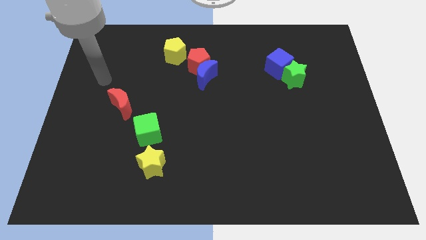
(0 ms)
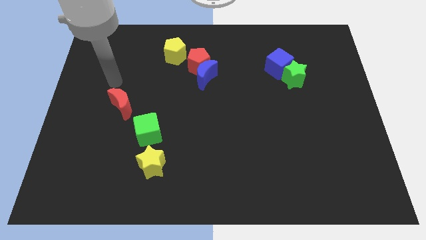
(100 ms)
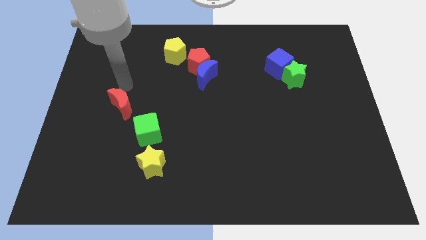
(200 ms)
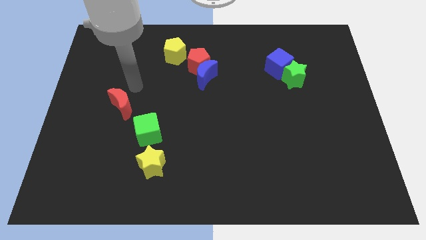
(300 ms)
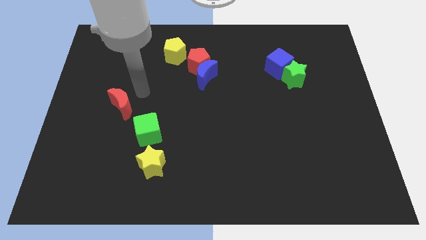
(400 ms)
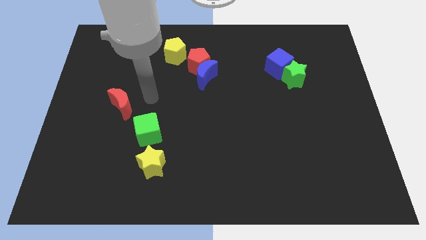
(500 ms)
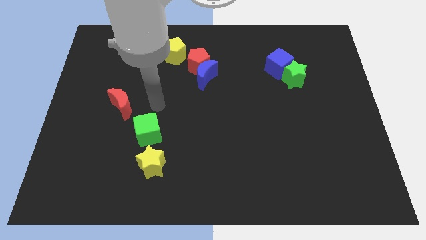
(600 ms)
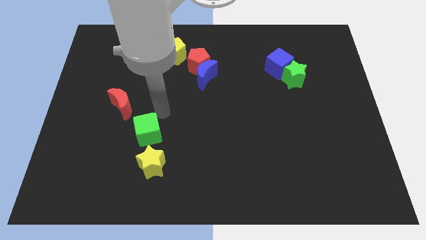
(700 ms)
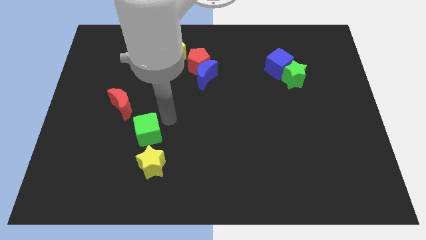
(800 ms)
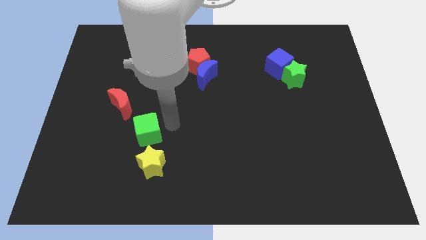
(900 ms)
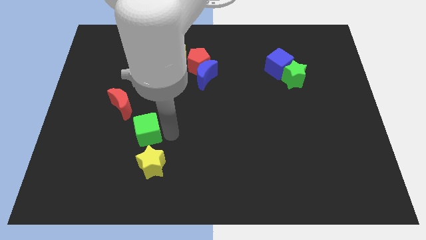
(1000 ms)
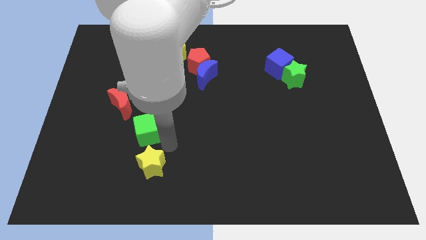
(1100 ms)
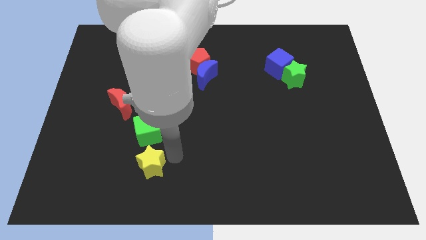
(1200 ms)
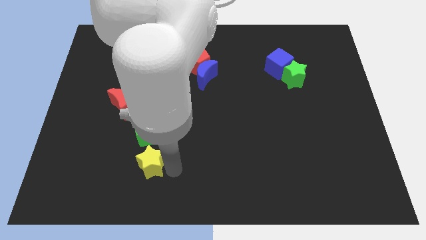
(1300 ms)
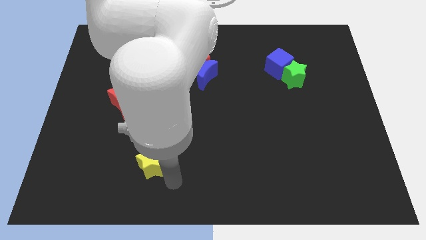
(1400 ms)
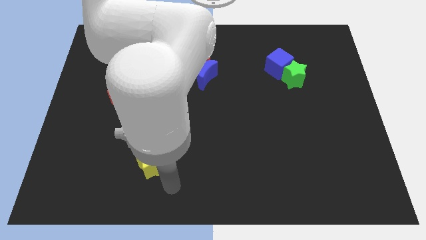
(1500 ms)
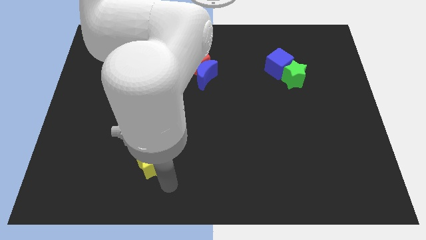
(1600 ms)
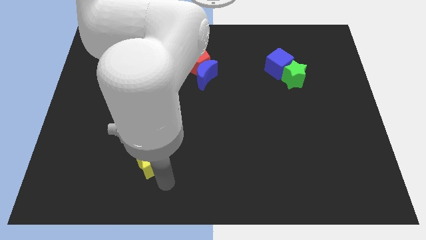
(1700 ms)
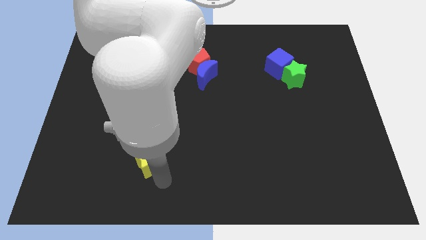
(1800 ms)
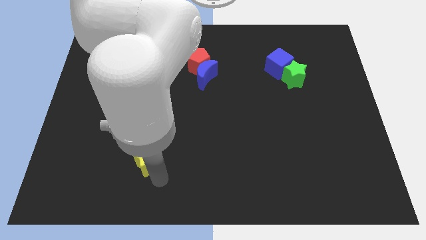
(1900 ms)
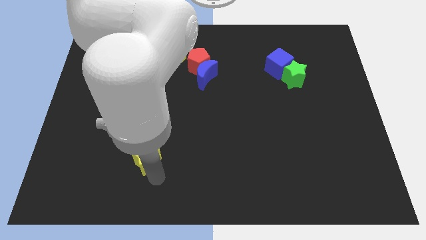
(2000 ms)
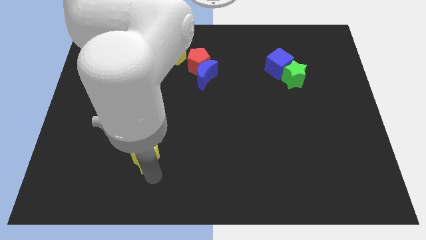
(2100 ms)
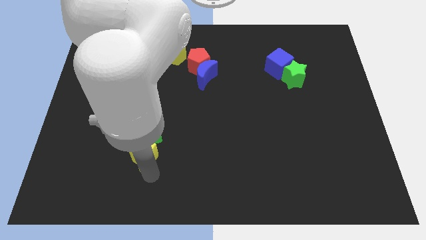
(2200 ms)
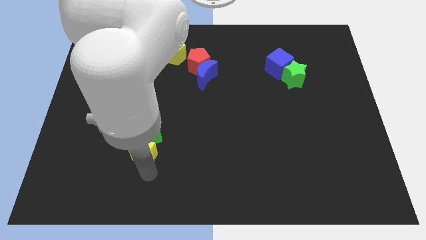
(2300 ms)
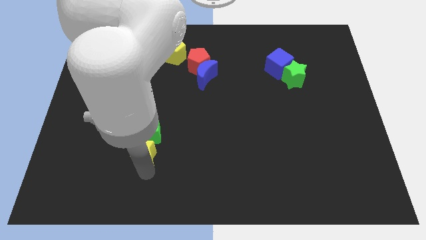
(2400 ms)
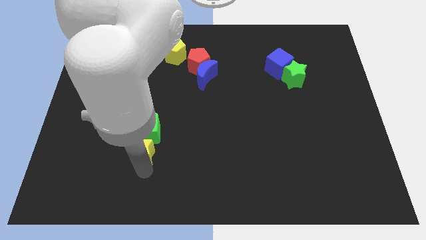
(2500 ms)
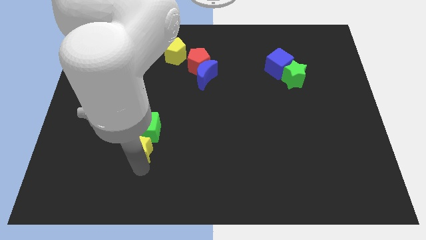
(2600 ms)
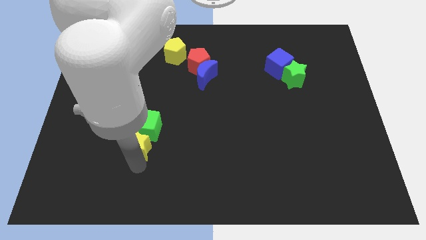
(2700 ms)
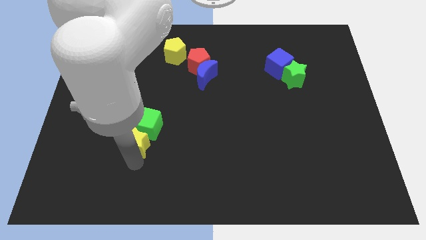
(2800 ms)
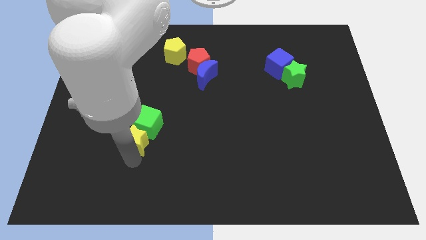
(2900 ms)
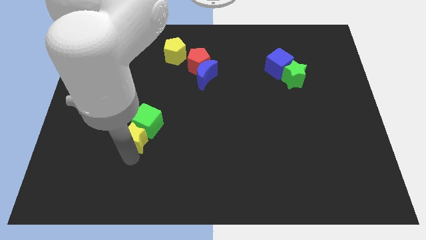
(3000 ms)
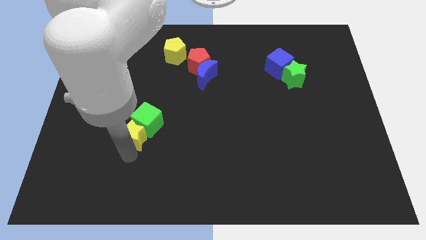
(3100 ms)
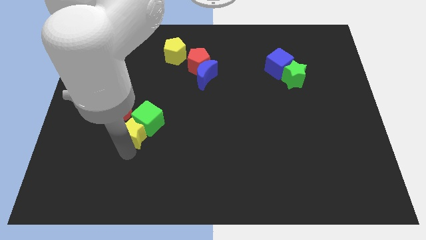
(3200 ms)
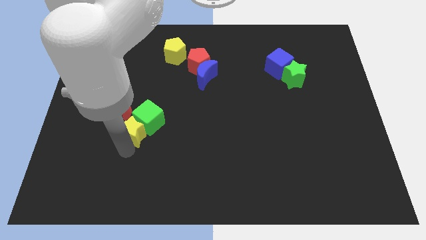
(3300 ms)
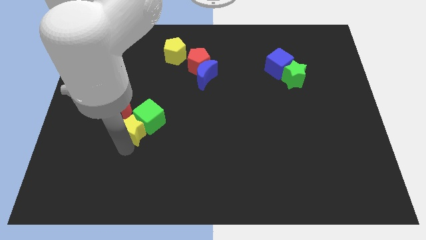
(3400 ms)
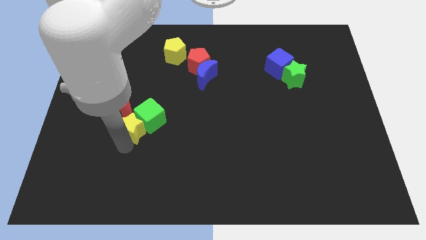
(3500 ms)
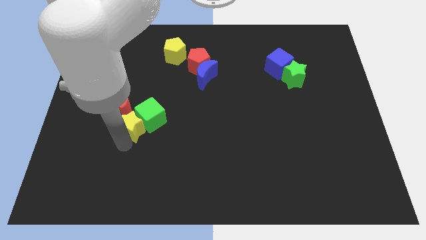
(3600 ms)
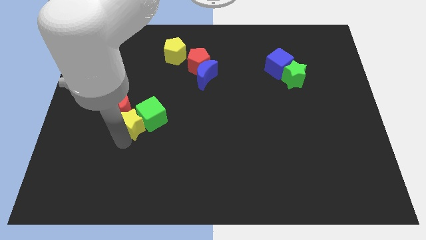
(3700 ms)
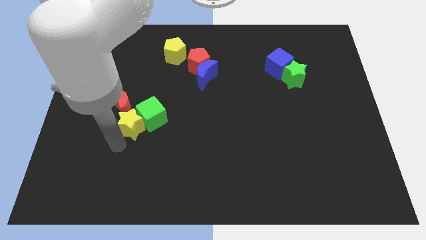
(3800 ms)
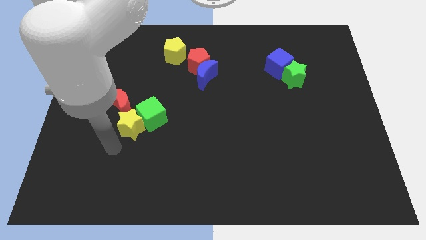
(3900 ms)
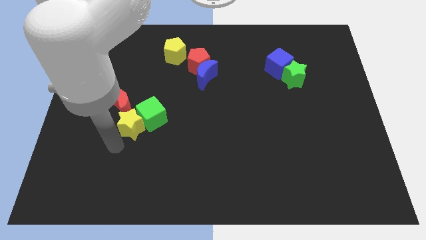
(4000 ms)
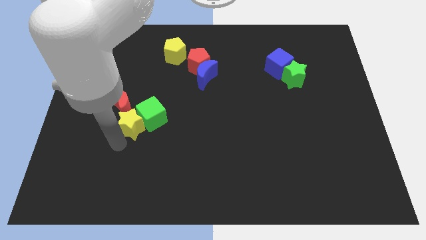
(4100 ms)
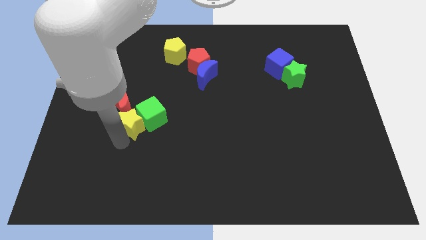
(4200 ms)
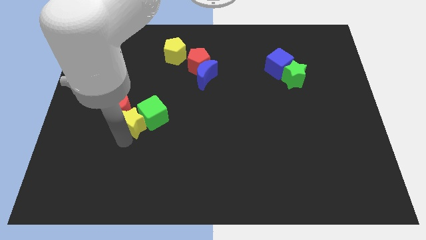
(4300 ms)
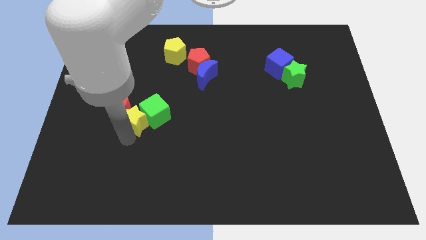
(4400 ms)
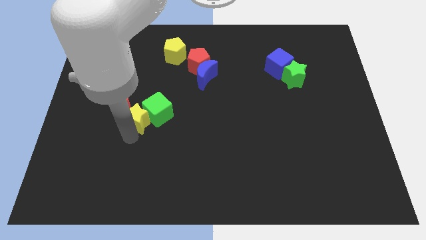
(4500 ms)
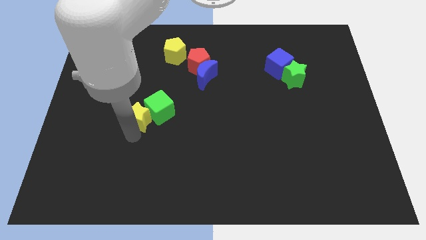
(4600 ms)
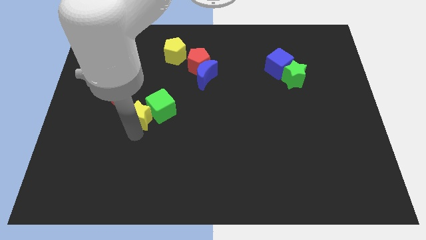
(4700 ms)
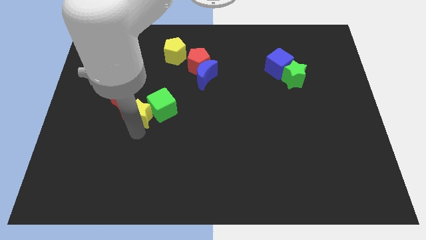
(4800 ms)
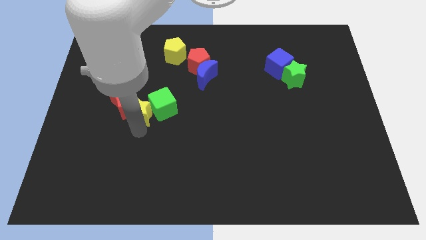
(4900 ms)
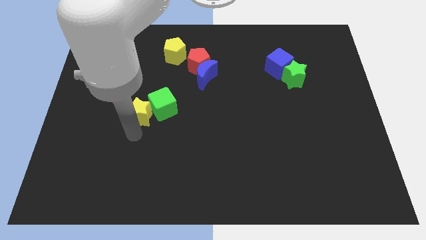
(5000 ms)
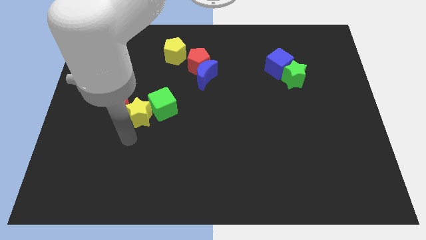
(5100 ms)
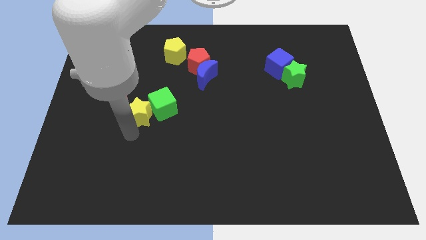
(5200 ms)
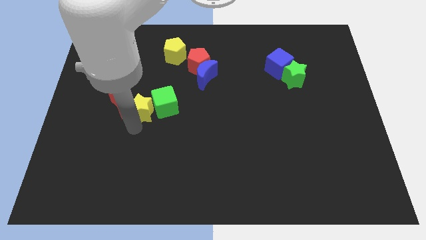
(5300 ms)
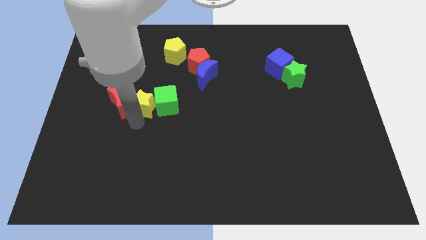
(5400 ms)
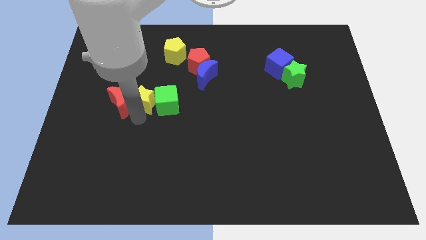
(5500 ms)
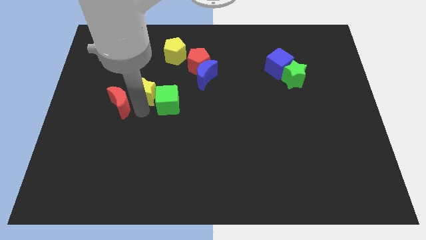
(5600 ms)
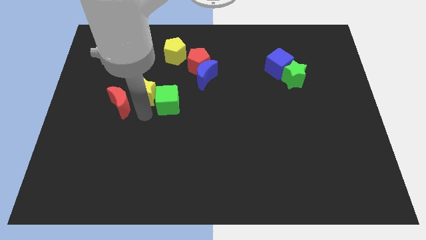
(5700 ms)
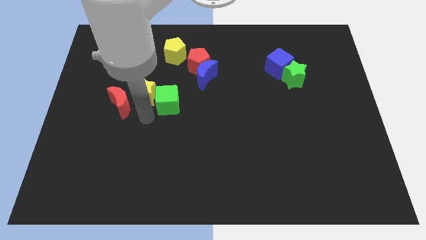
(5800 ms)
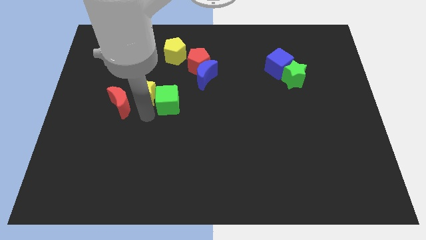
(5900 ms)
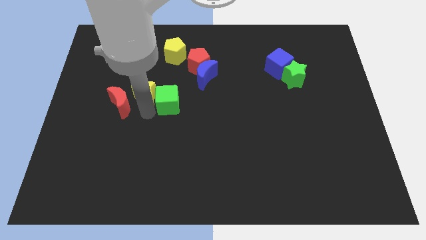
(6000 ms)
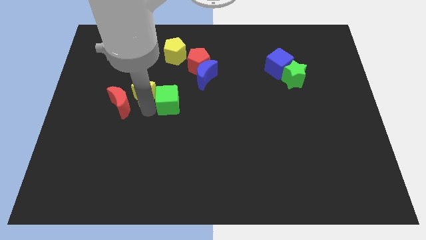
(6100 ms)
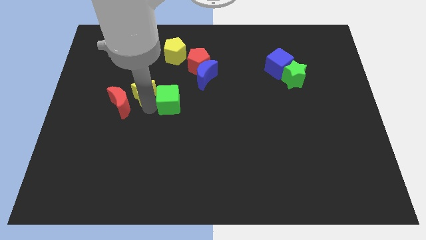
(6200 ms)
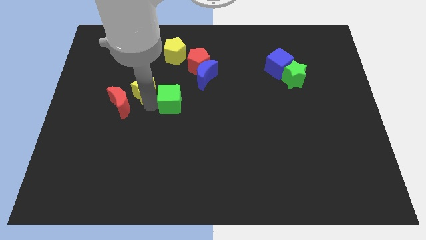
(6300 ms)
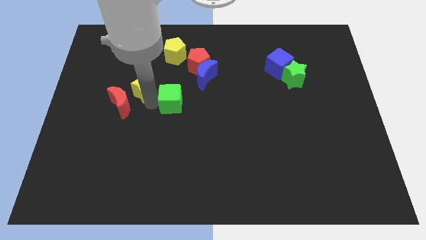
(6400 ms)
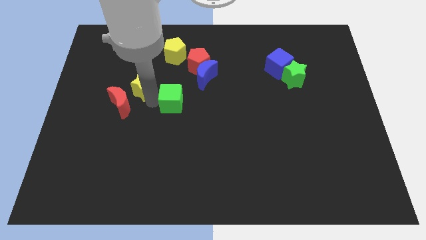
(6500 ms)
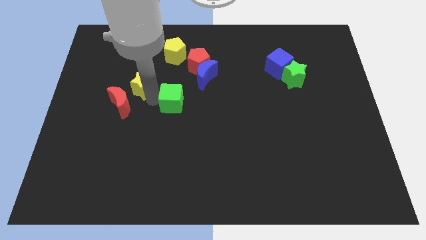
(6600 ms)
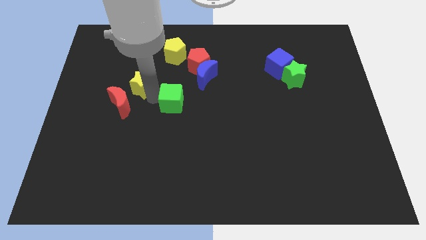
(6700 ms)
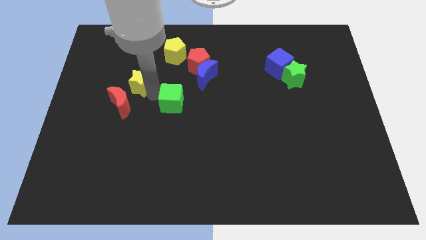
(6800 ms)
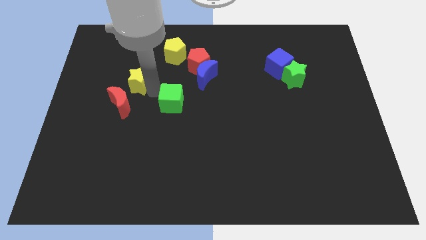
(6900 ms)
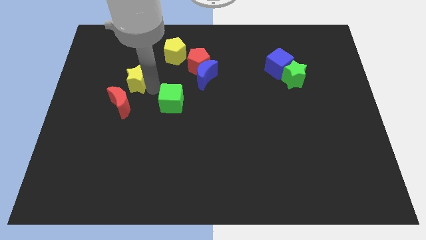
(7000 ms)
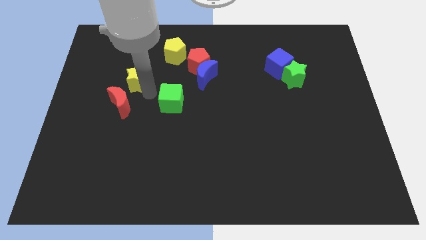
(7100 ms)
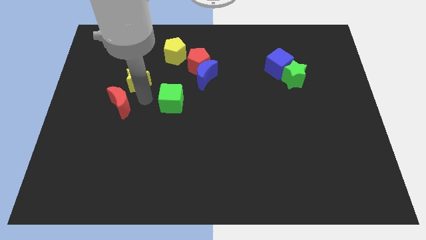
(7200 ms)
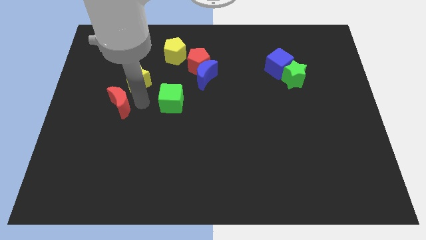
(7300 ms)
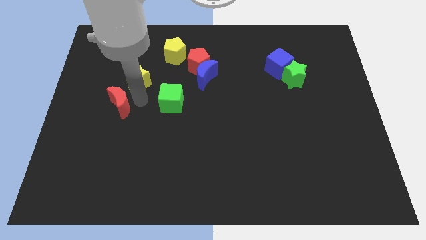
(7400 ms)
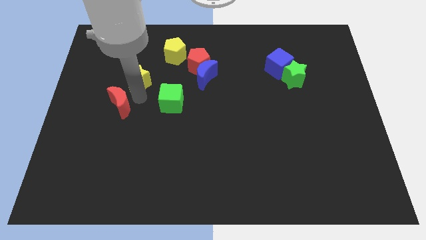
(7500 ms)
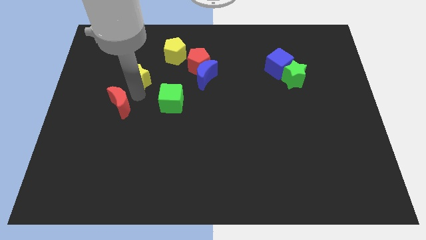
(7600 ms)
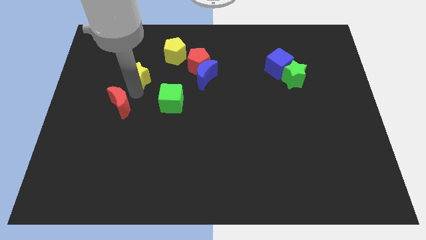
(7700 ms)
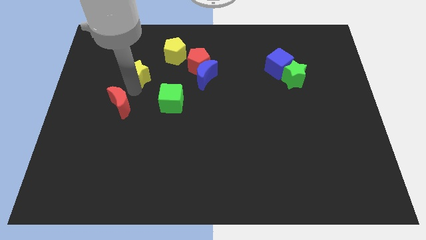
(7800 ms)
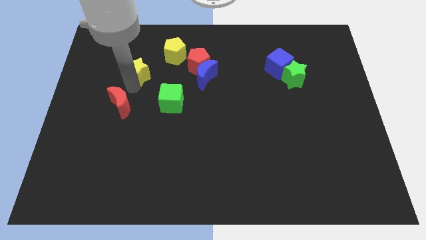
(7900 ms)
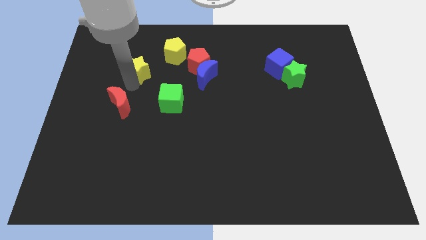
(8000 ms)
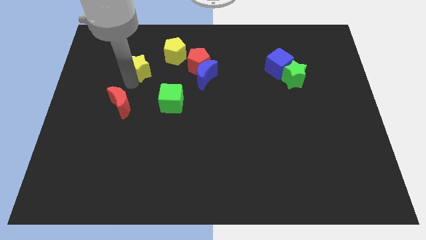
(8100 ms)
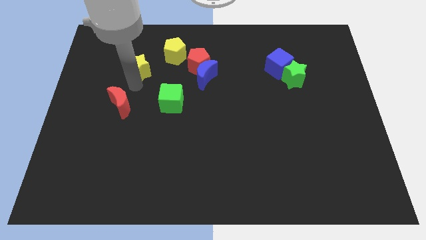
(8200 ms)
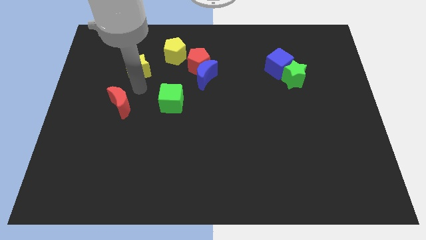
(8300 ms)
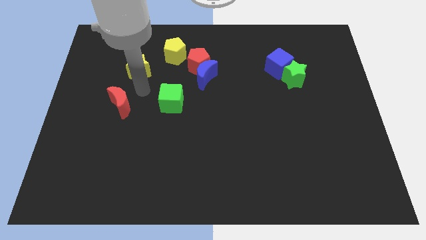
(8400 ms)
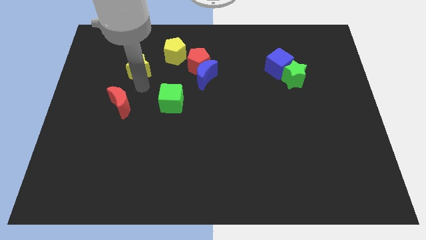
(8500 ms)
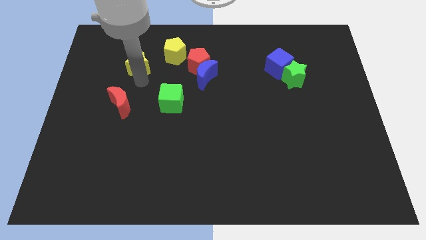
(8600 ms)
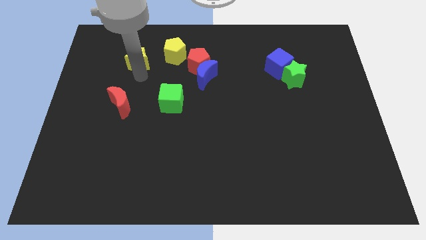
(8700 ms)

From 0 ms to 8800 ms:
move the yellow star to the left side of the yellow pentagon
